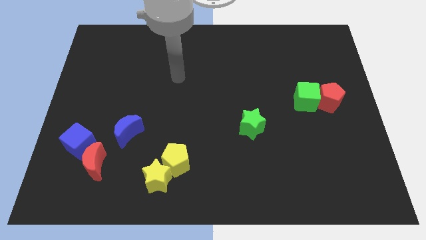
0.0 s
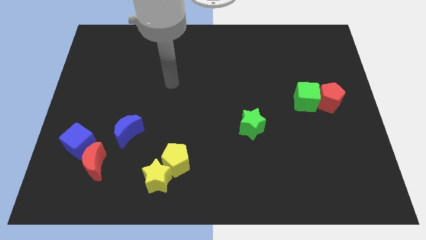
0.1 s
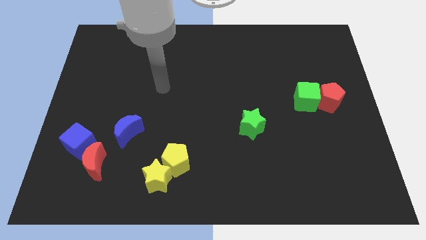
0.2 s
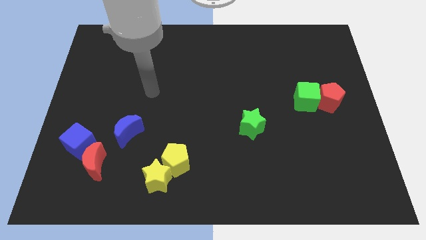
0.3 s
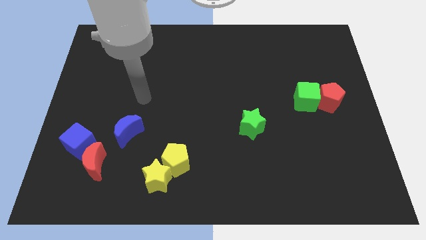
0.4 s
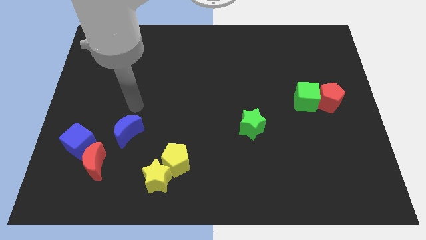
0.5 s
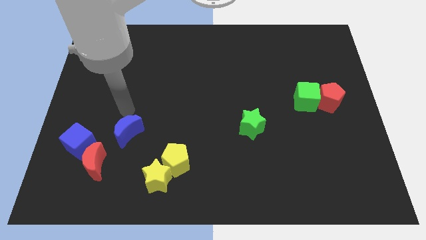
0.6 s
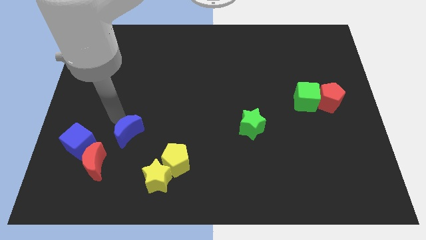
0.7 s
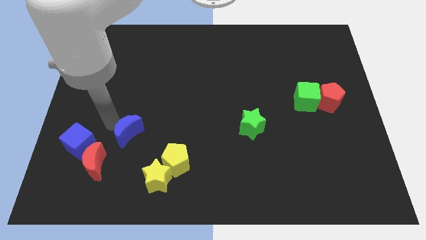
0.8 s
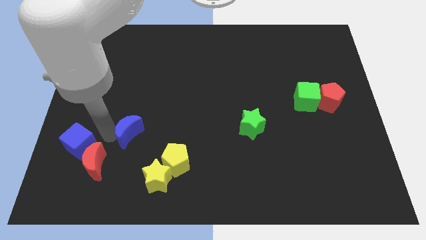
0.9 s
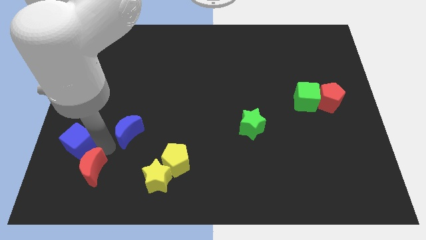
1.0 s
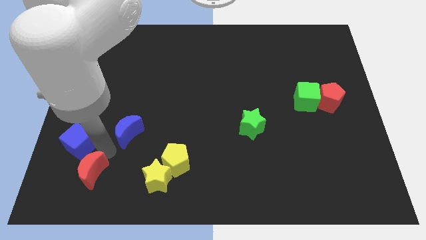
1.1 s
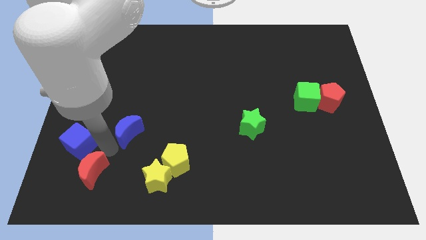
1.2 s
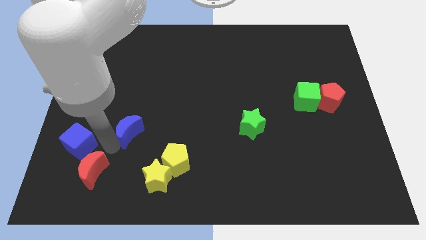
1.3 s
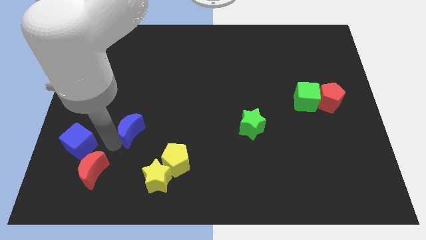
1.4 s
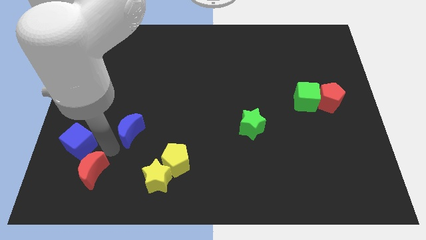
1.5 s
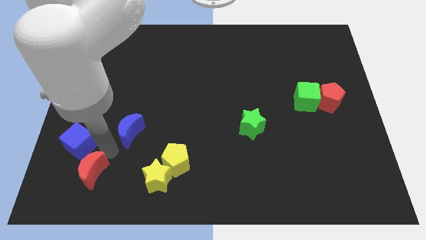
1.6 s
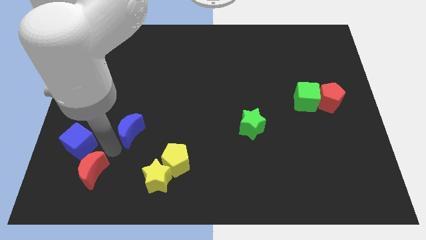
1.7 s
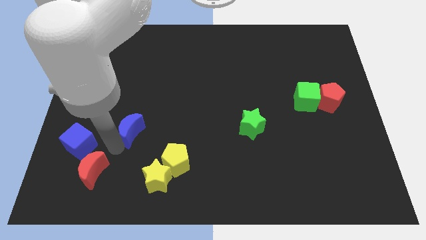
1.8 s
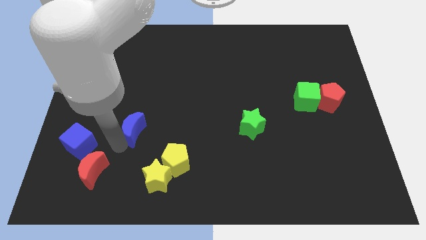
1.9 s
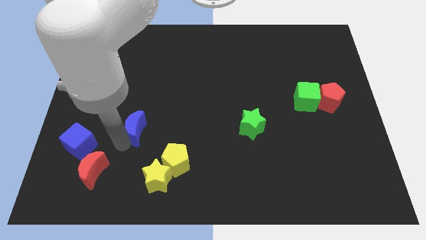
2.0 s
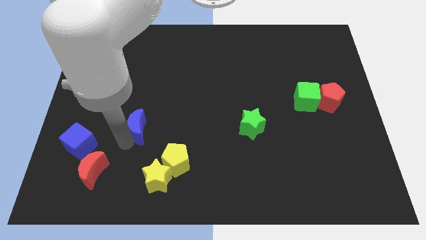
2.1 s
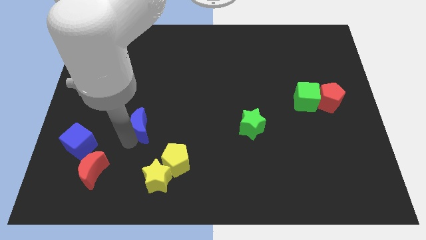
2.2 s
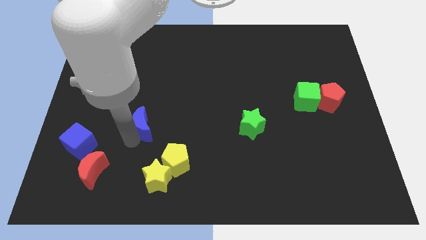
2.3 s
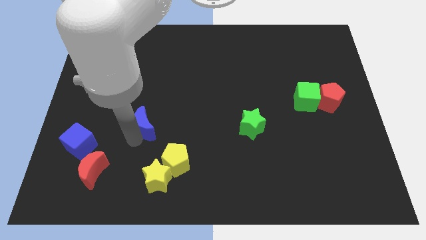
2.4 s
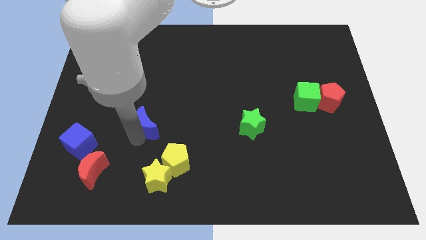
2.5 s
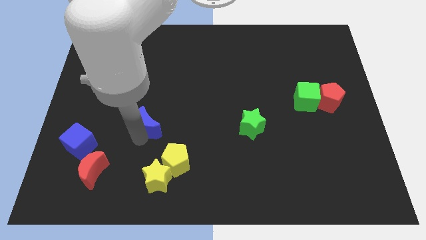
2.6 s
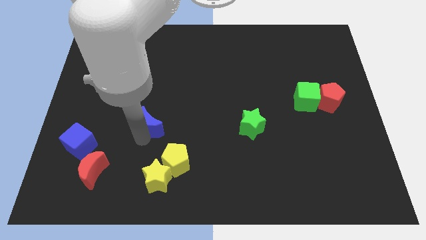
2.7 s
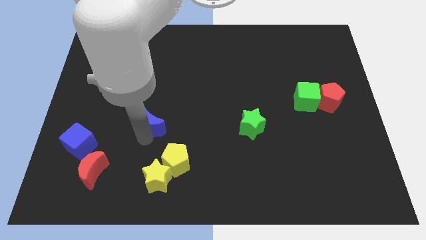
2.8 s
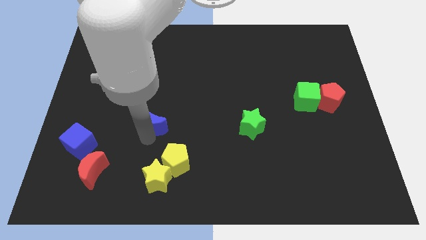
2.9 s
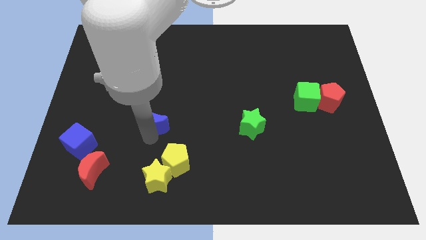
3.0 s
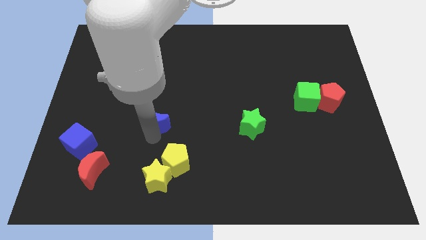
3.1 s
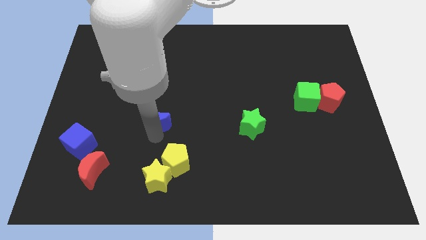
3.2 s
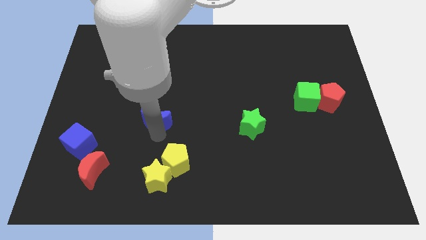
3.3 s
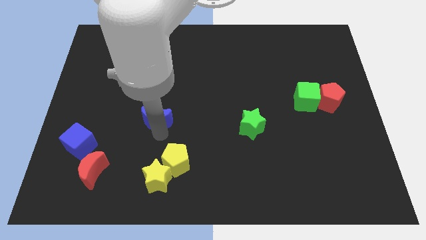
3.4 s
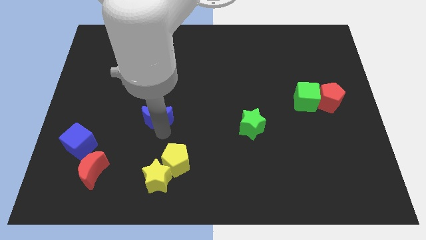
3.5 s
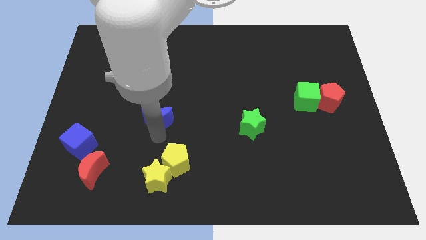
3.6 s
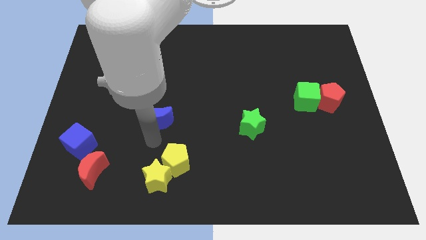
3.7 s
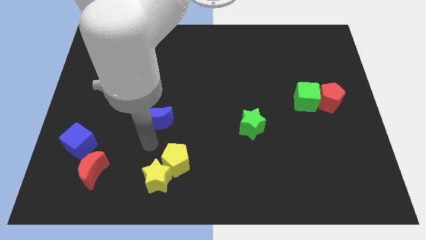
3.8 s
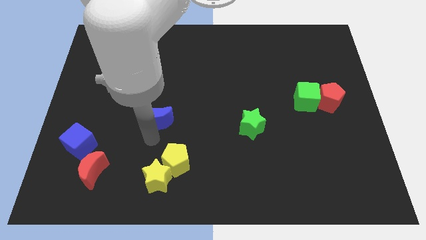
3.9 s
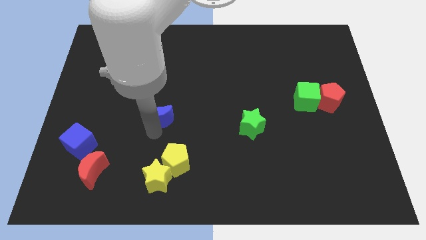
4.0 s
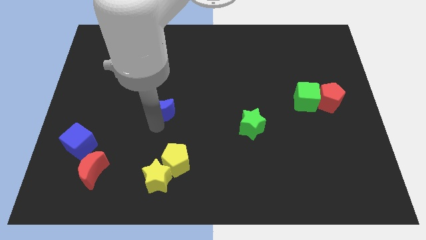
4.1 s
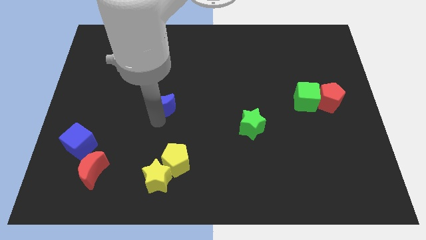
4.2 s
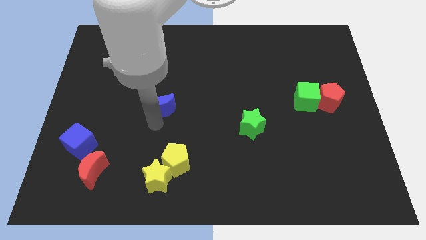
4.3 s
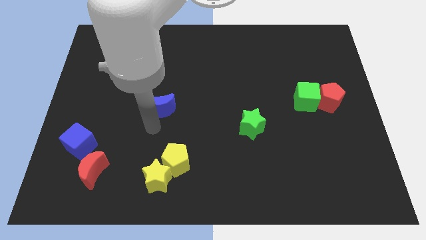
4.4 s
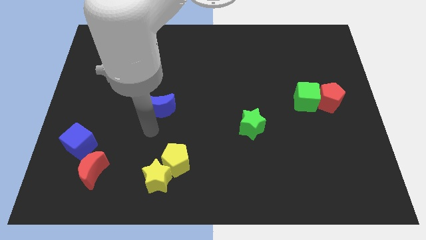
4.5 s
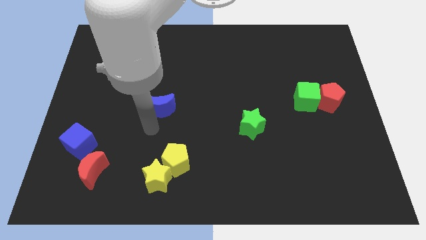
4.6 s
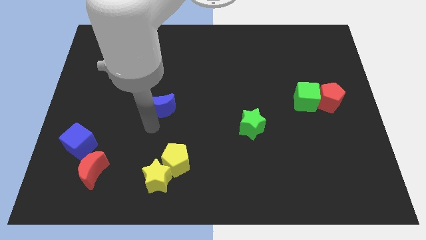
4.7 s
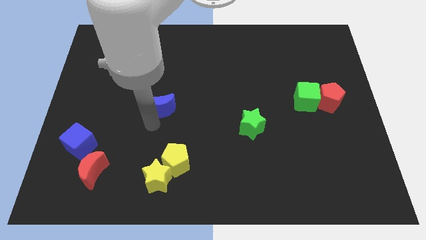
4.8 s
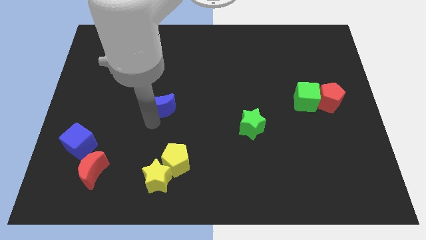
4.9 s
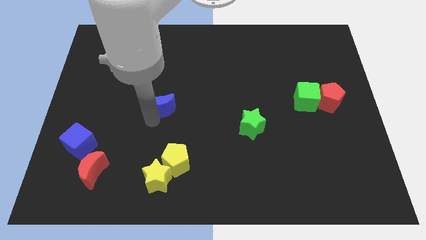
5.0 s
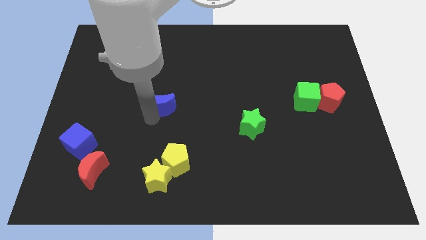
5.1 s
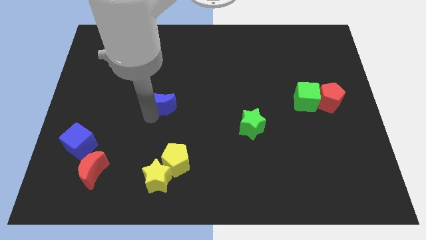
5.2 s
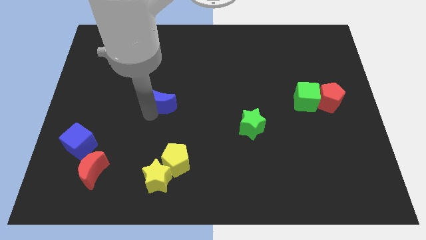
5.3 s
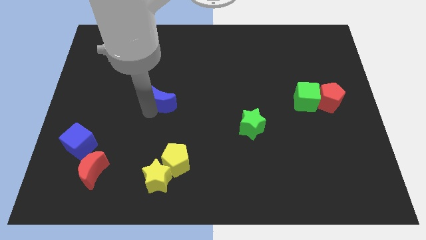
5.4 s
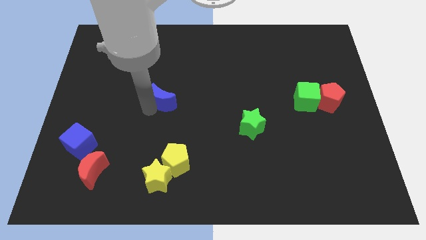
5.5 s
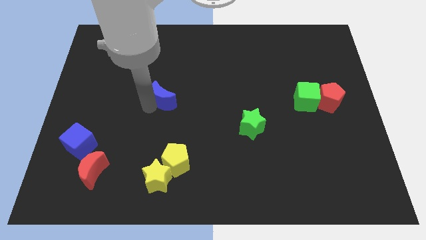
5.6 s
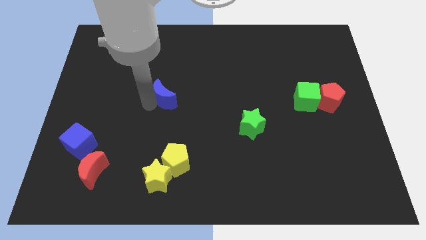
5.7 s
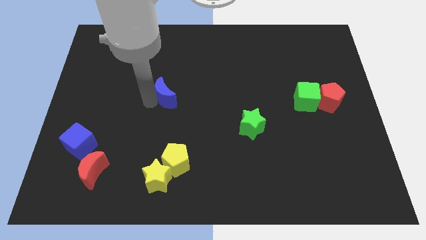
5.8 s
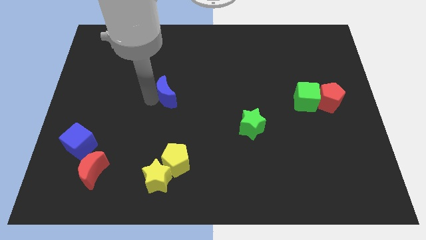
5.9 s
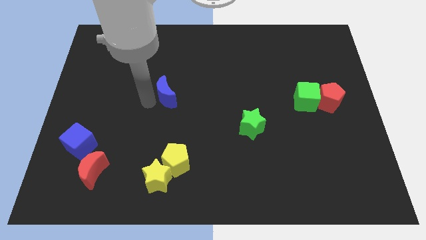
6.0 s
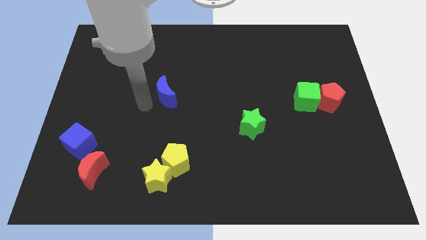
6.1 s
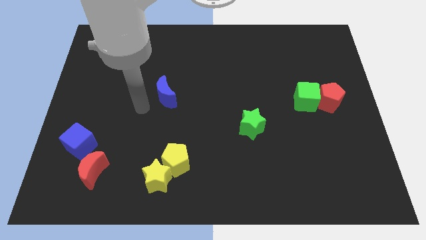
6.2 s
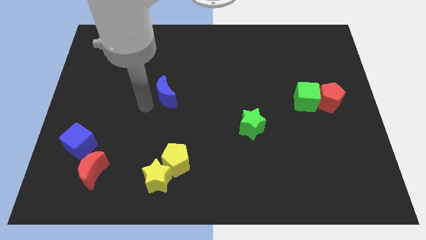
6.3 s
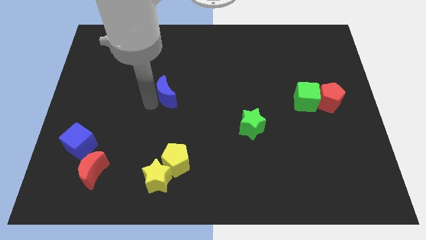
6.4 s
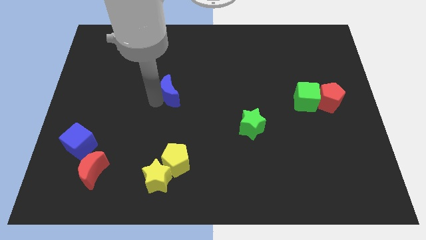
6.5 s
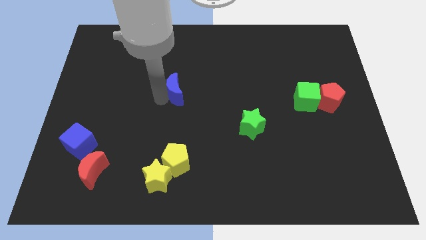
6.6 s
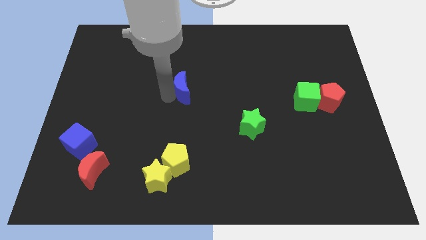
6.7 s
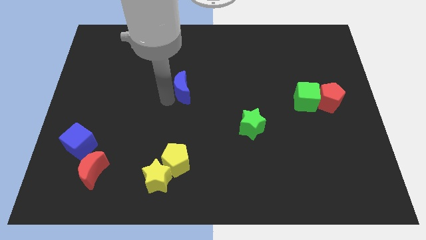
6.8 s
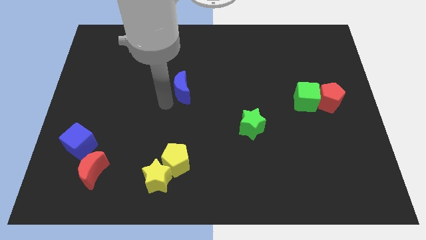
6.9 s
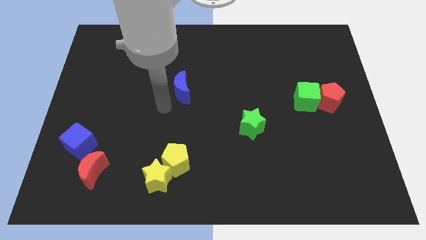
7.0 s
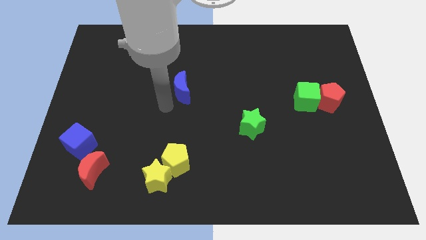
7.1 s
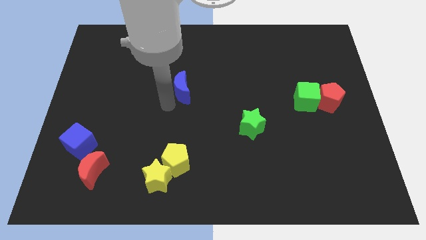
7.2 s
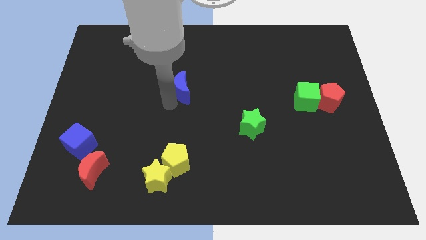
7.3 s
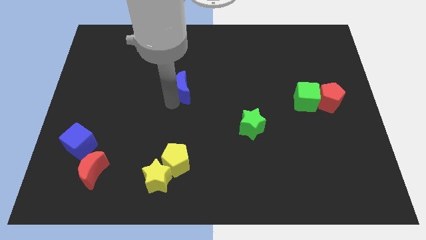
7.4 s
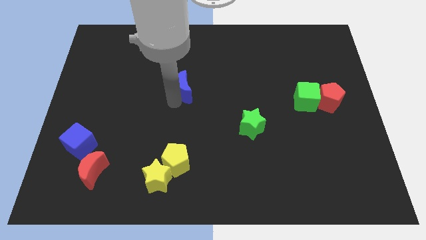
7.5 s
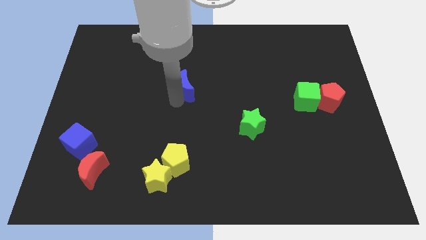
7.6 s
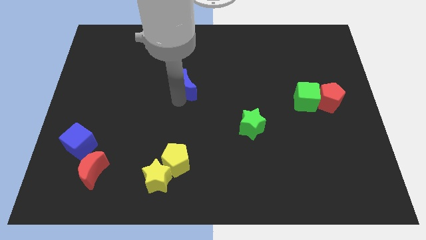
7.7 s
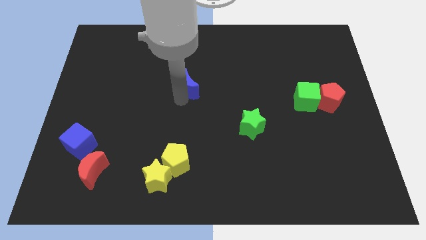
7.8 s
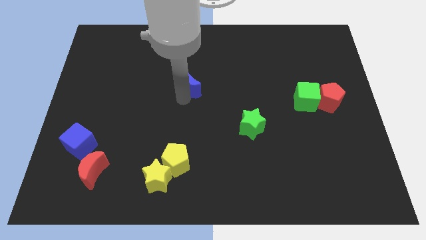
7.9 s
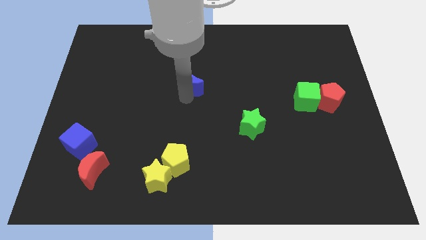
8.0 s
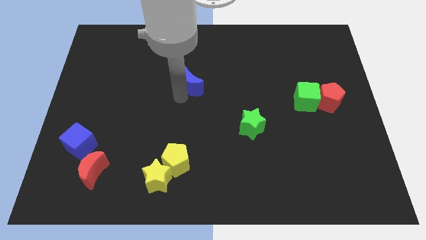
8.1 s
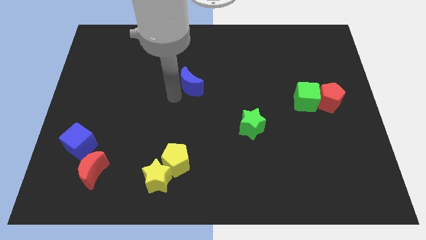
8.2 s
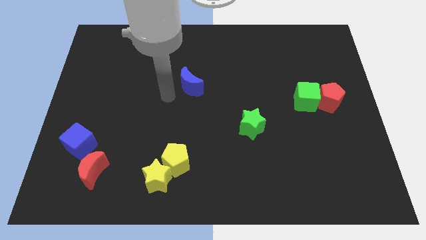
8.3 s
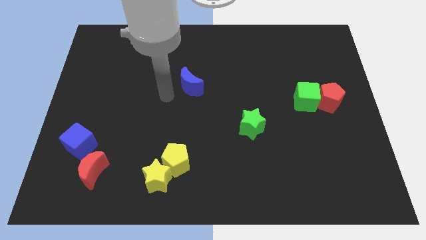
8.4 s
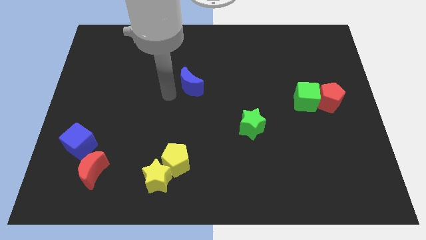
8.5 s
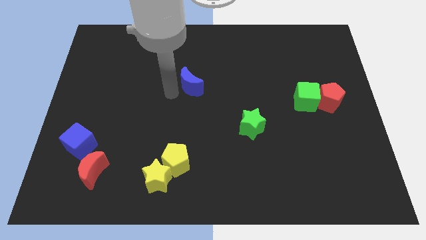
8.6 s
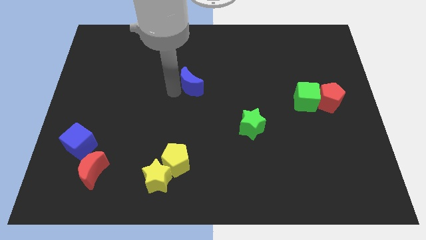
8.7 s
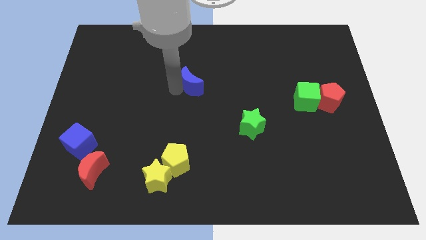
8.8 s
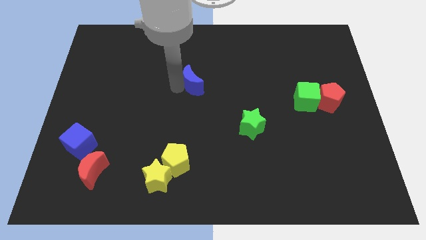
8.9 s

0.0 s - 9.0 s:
slide the blue moon up and right diagonally
